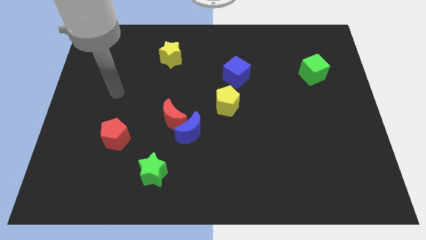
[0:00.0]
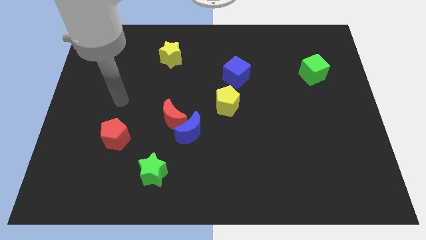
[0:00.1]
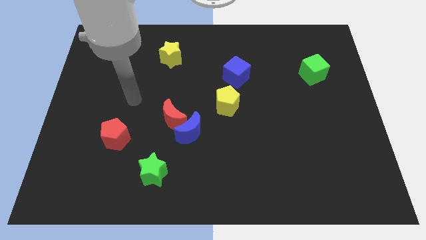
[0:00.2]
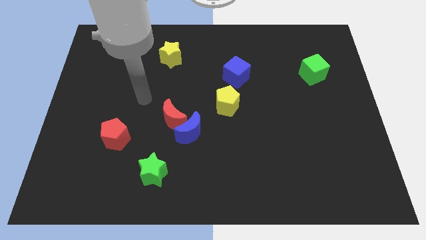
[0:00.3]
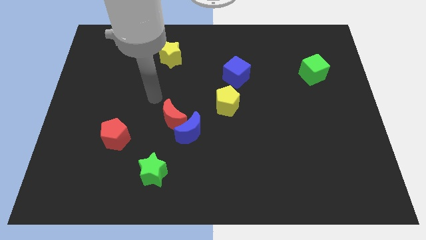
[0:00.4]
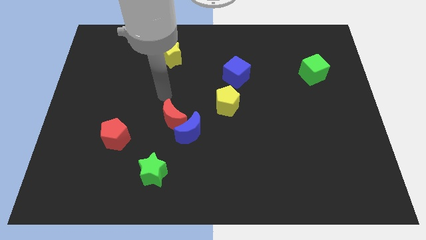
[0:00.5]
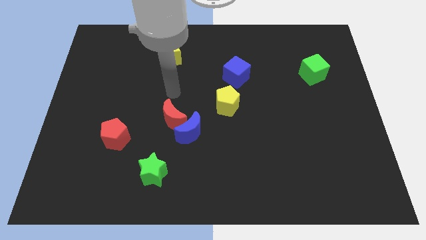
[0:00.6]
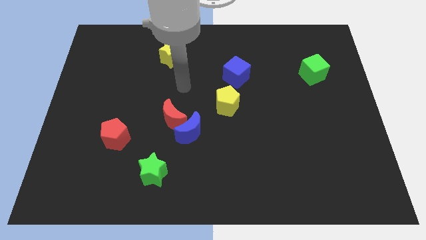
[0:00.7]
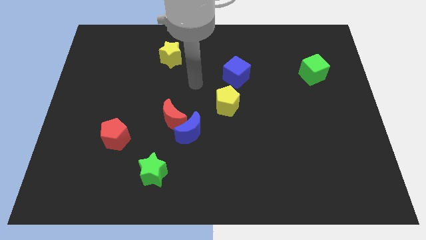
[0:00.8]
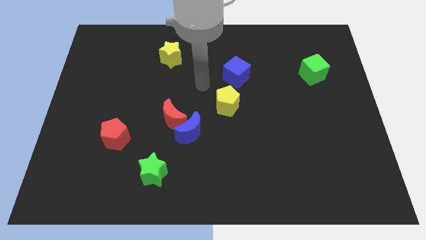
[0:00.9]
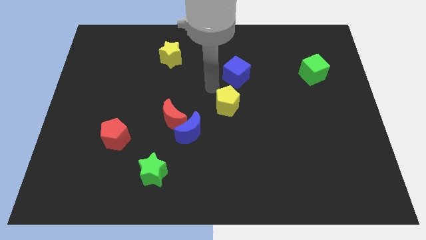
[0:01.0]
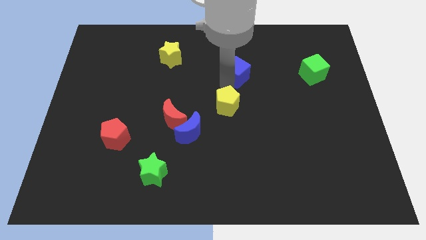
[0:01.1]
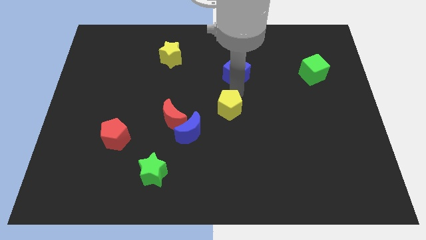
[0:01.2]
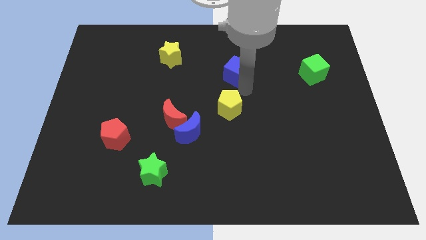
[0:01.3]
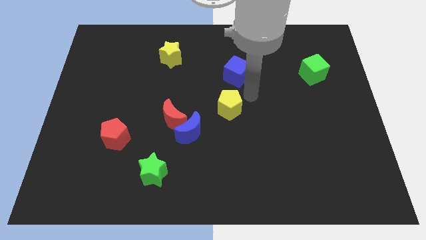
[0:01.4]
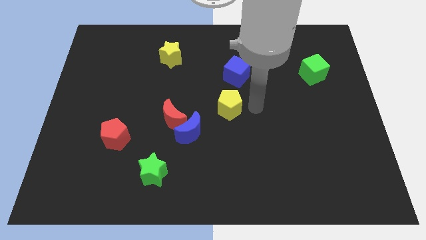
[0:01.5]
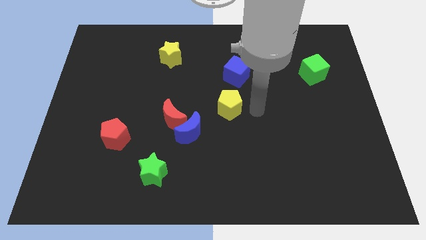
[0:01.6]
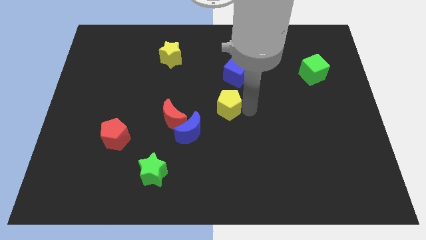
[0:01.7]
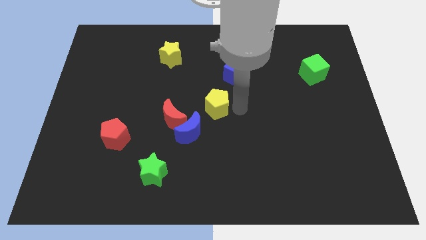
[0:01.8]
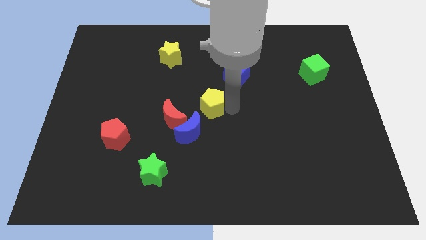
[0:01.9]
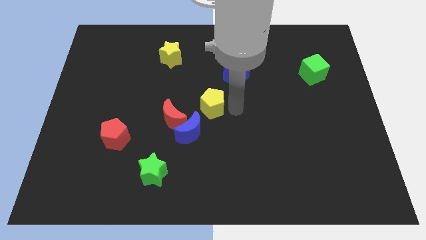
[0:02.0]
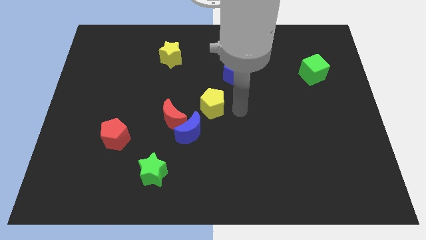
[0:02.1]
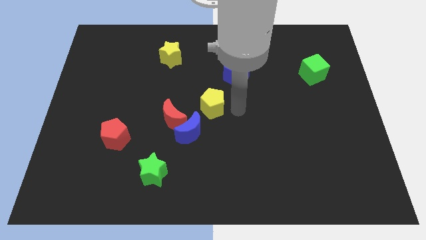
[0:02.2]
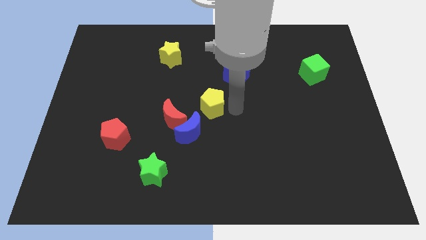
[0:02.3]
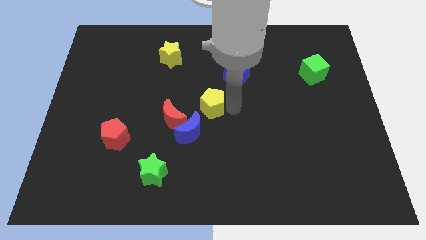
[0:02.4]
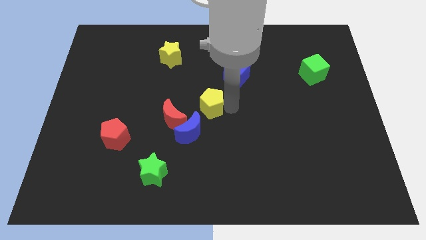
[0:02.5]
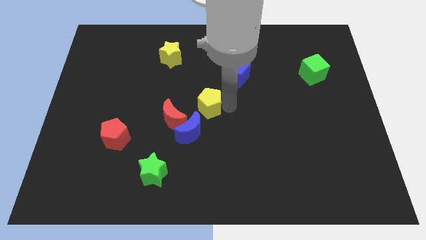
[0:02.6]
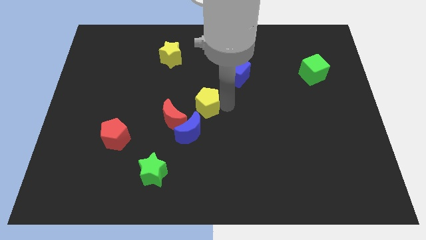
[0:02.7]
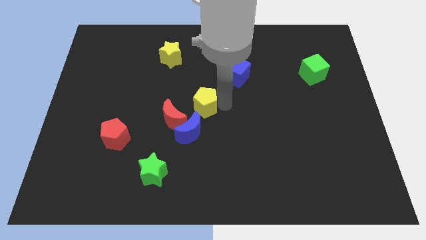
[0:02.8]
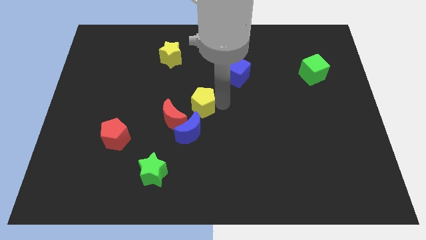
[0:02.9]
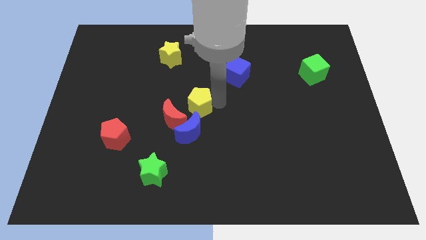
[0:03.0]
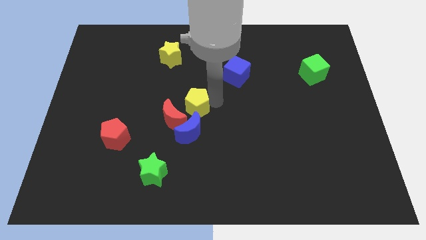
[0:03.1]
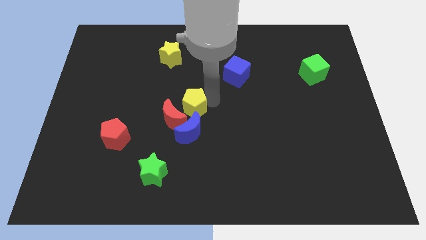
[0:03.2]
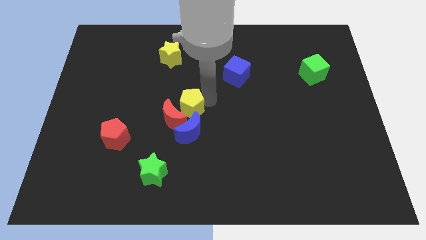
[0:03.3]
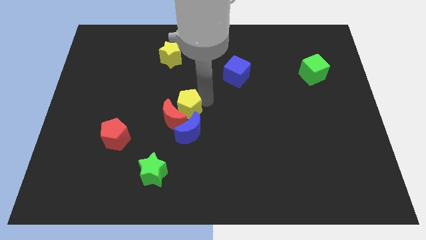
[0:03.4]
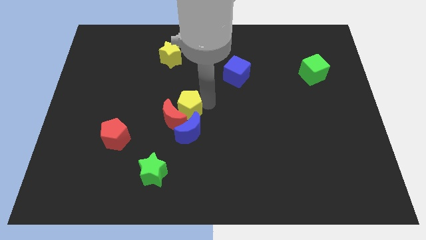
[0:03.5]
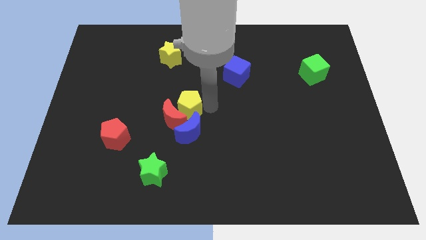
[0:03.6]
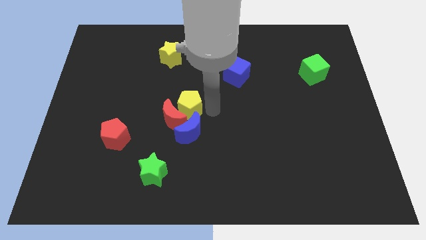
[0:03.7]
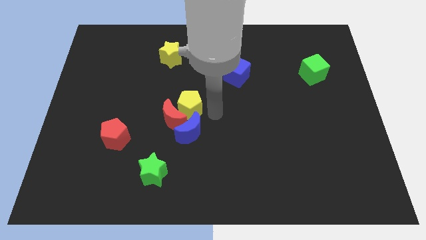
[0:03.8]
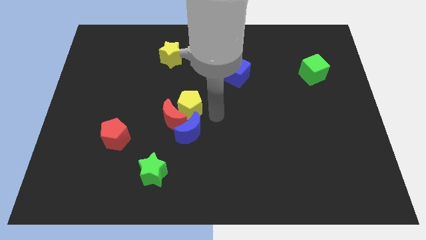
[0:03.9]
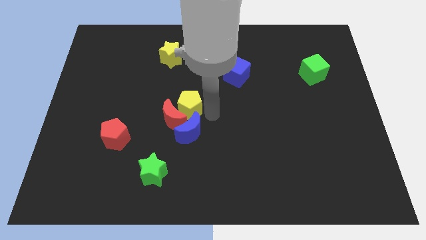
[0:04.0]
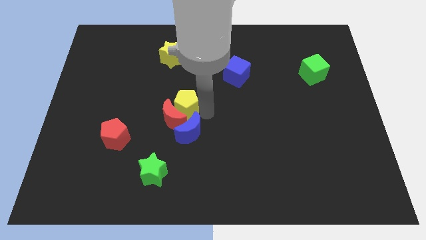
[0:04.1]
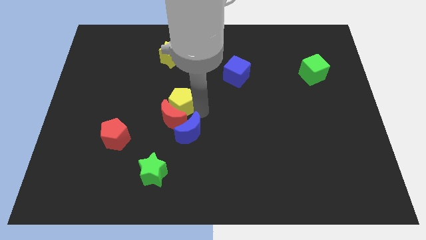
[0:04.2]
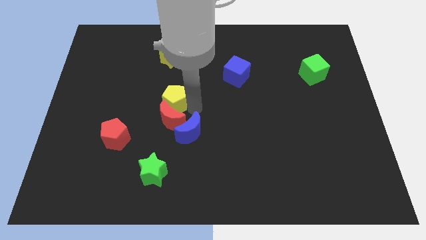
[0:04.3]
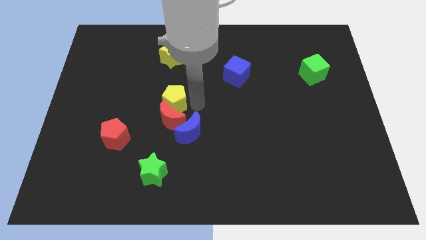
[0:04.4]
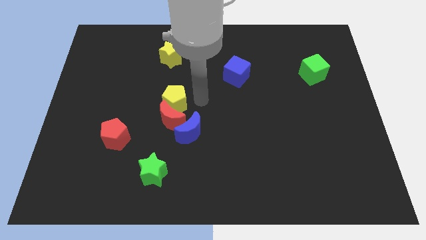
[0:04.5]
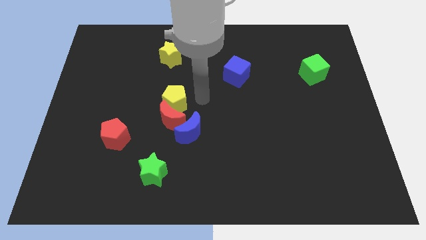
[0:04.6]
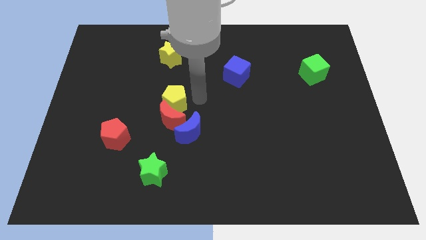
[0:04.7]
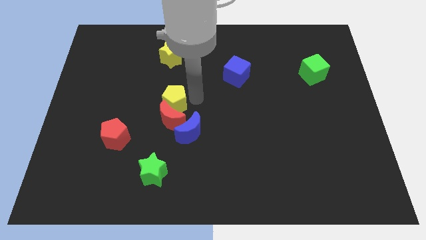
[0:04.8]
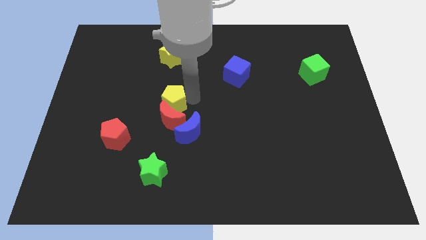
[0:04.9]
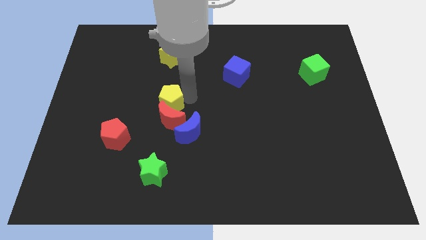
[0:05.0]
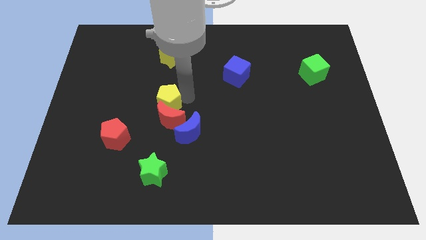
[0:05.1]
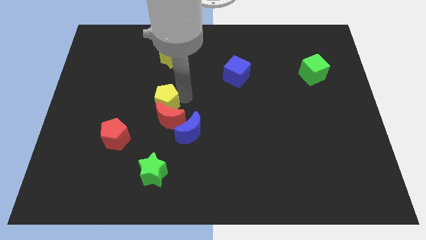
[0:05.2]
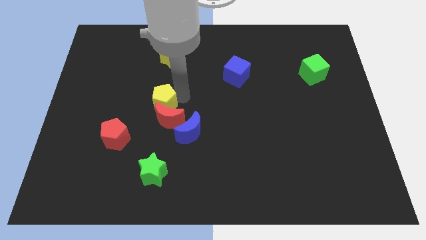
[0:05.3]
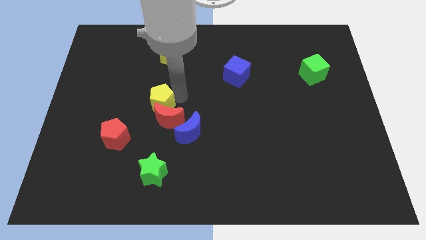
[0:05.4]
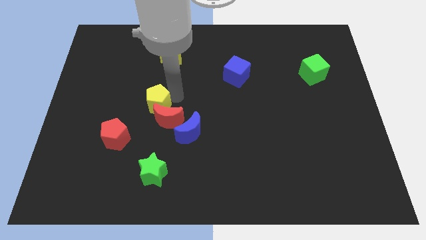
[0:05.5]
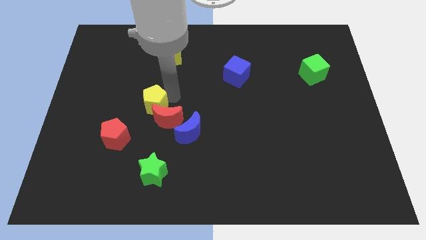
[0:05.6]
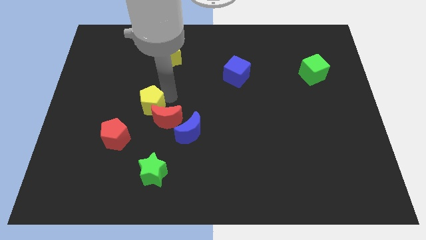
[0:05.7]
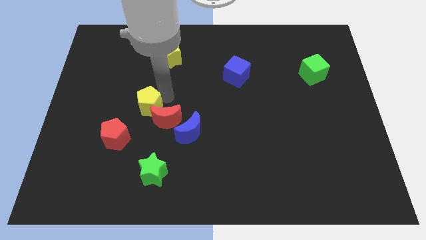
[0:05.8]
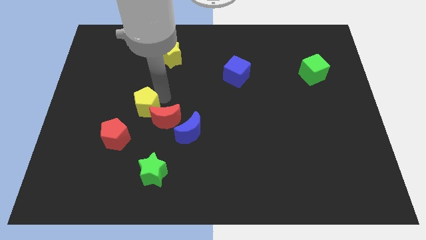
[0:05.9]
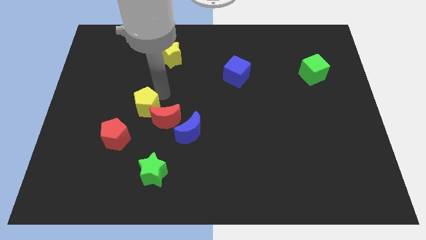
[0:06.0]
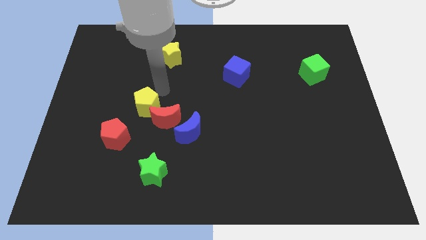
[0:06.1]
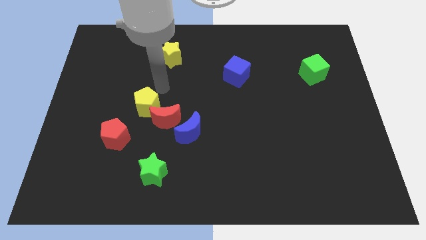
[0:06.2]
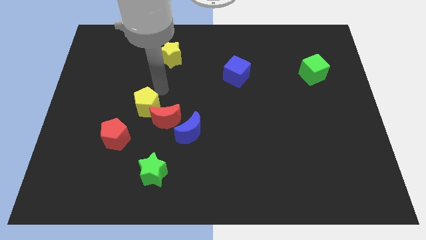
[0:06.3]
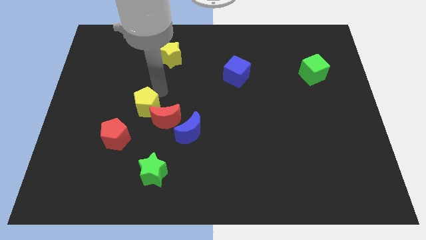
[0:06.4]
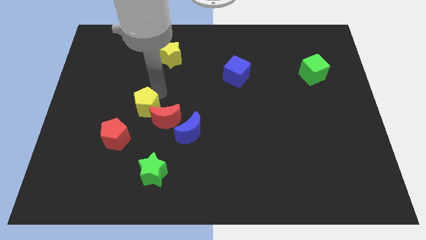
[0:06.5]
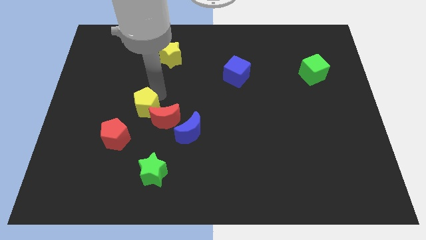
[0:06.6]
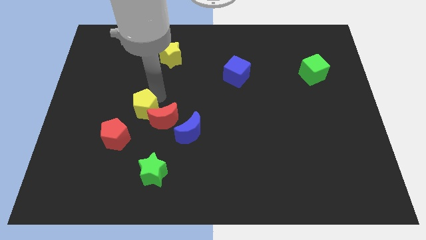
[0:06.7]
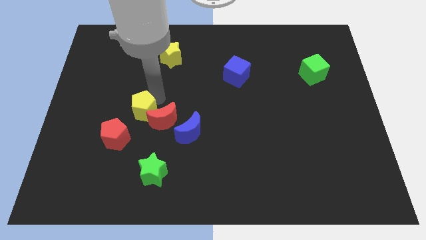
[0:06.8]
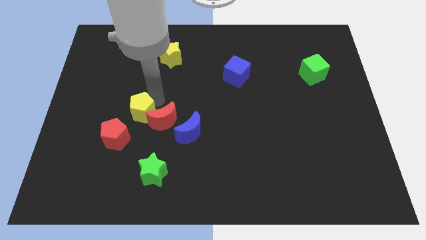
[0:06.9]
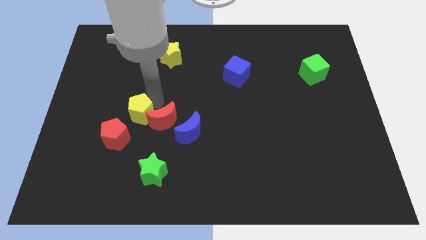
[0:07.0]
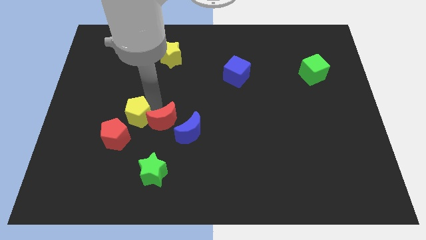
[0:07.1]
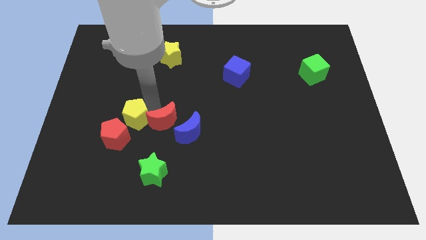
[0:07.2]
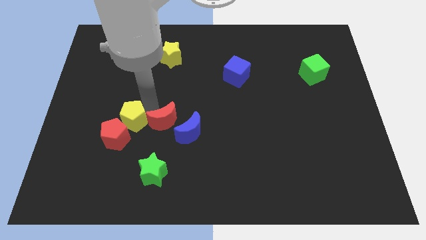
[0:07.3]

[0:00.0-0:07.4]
move the yellow pentagon to the red pentagon
